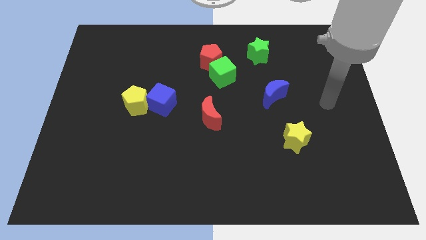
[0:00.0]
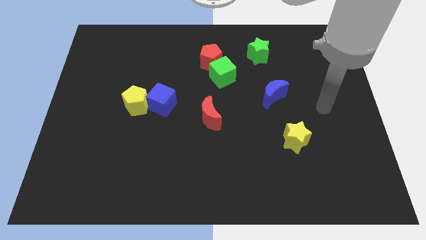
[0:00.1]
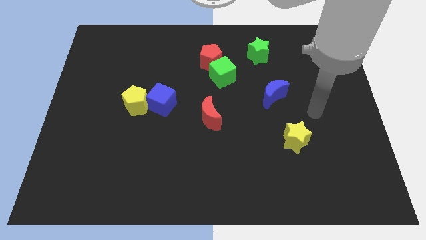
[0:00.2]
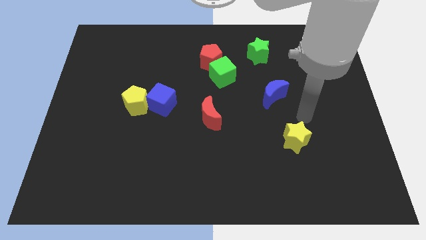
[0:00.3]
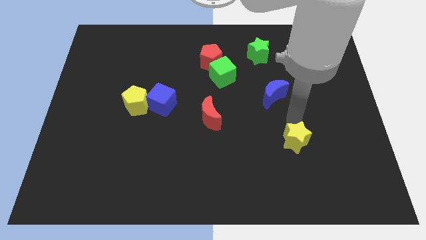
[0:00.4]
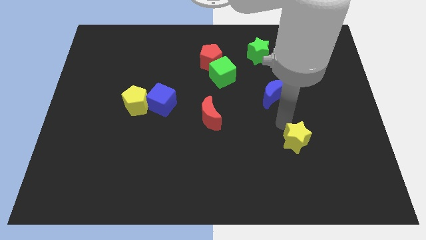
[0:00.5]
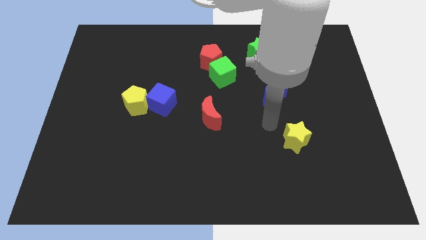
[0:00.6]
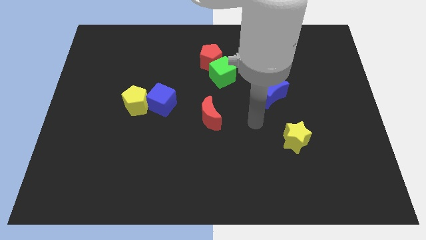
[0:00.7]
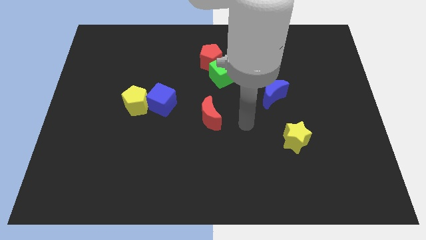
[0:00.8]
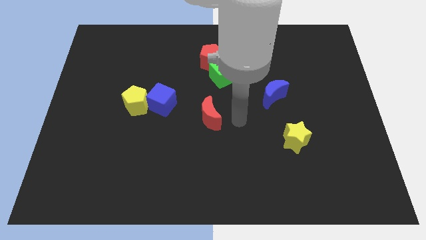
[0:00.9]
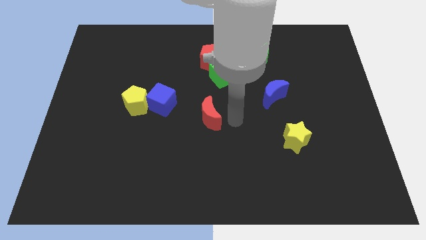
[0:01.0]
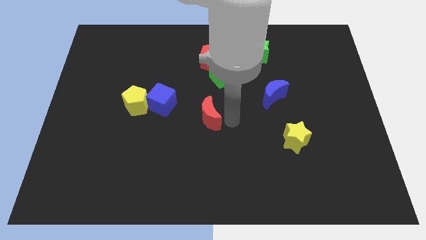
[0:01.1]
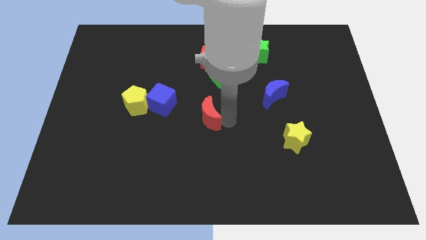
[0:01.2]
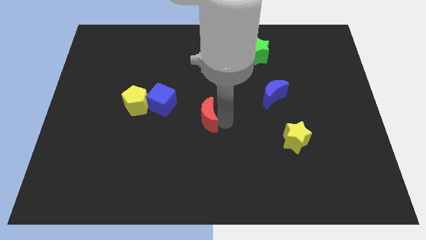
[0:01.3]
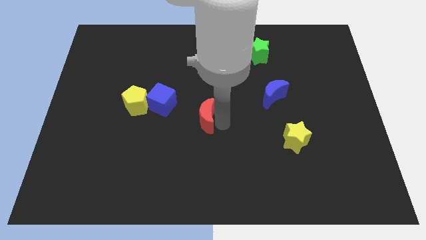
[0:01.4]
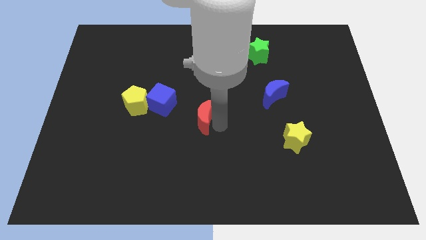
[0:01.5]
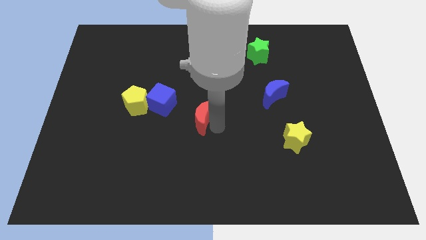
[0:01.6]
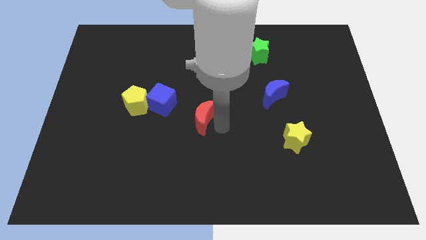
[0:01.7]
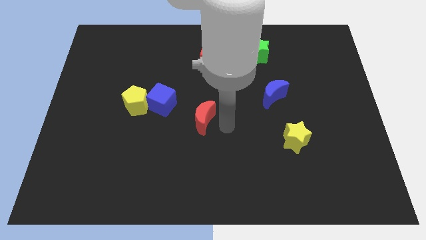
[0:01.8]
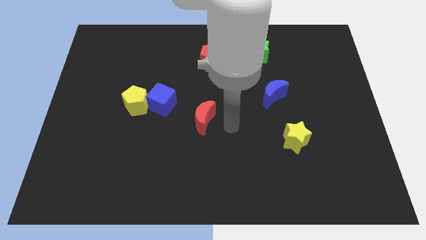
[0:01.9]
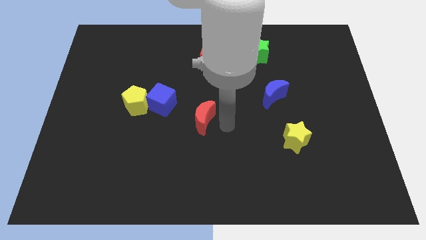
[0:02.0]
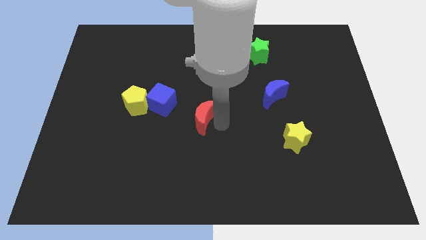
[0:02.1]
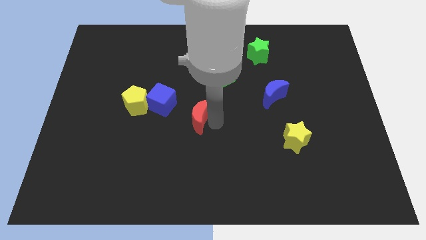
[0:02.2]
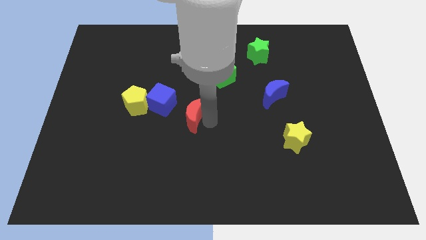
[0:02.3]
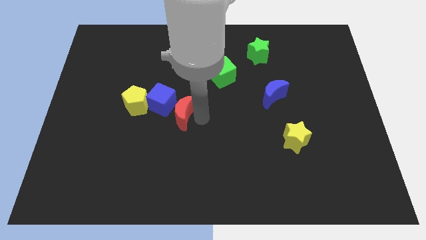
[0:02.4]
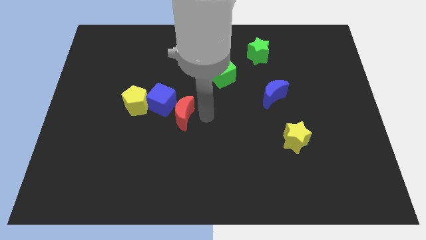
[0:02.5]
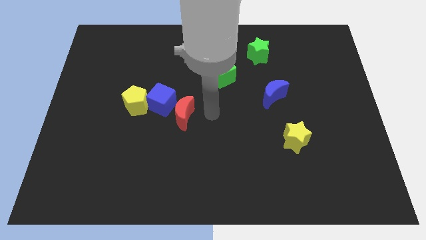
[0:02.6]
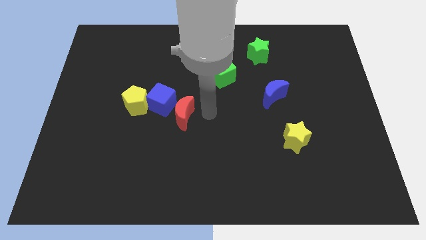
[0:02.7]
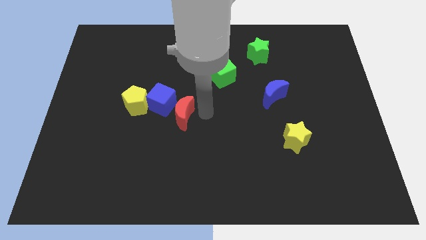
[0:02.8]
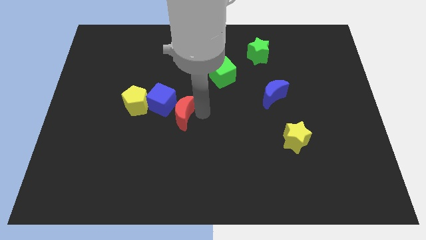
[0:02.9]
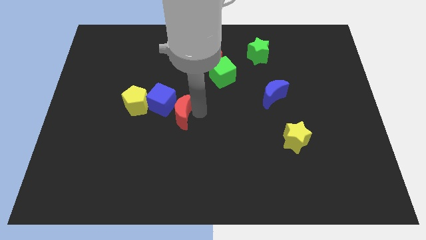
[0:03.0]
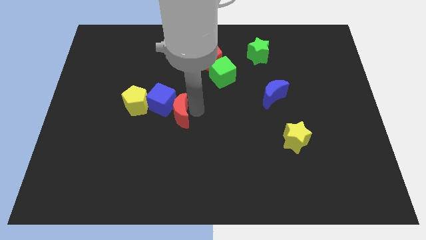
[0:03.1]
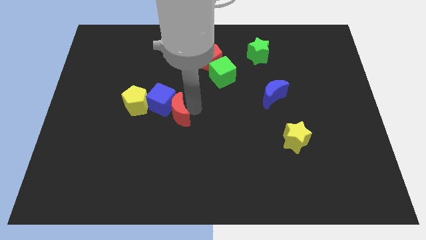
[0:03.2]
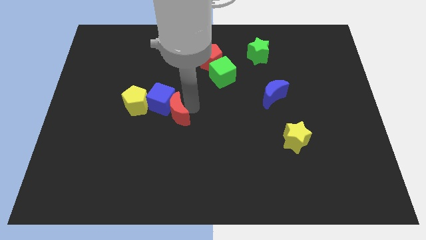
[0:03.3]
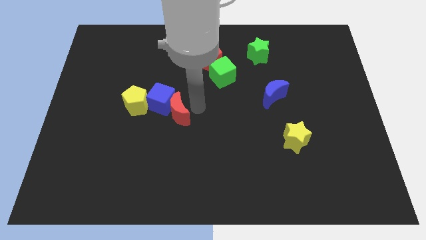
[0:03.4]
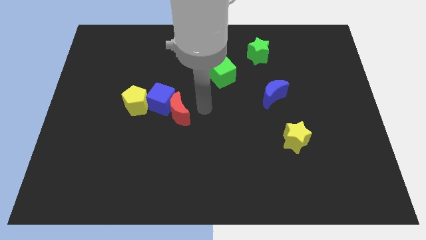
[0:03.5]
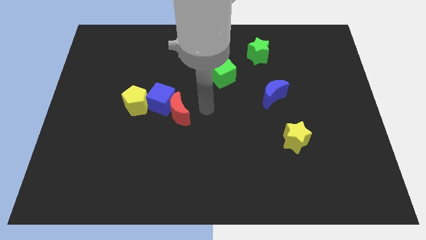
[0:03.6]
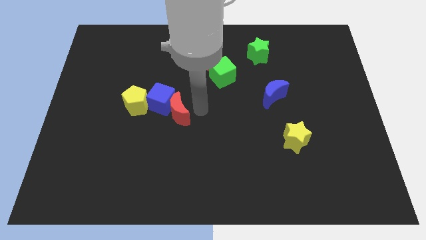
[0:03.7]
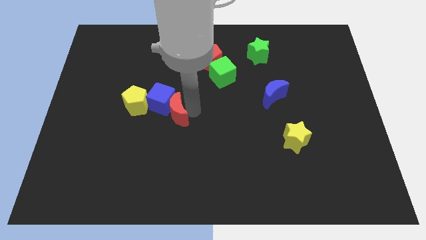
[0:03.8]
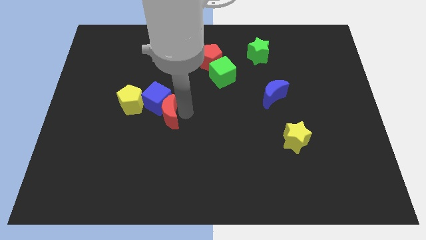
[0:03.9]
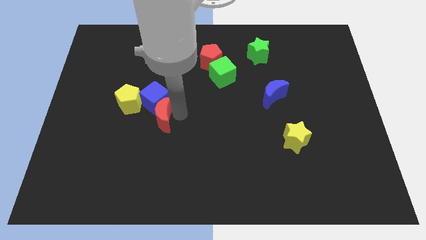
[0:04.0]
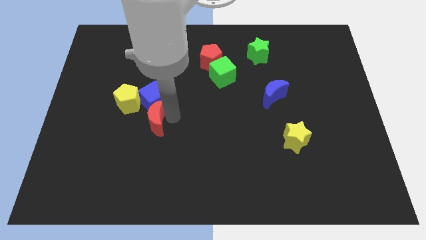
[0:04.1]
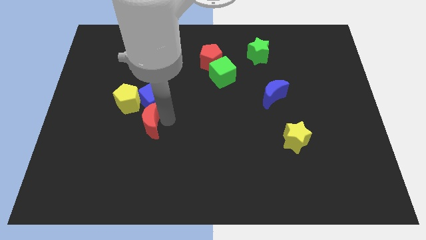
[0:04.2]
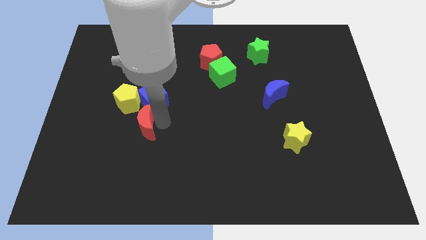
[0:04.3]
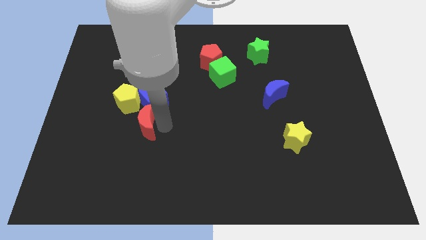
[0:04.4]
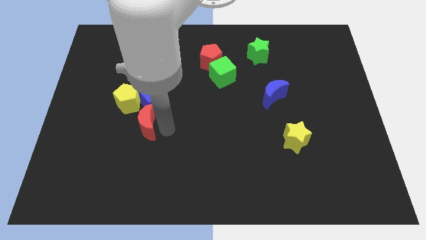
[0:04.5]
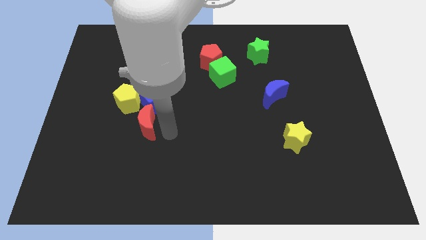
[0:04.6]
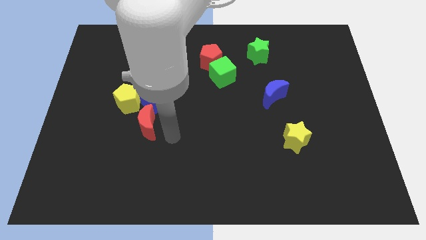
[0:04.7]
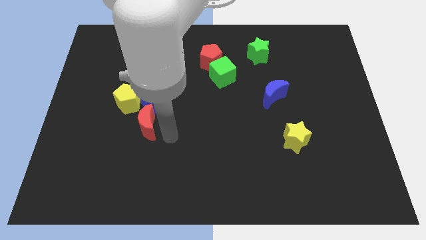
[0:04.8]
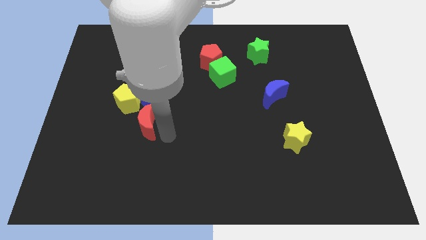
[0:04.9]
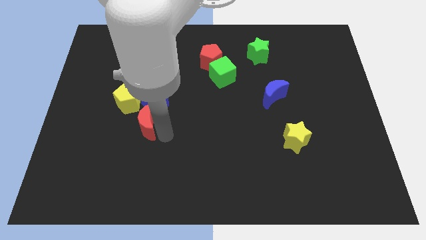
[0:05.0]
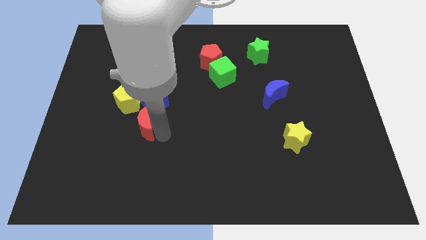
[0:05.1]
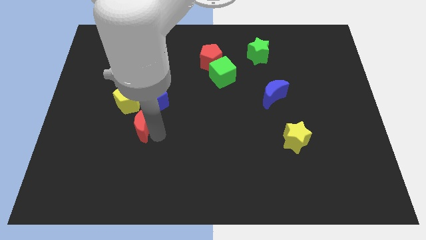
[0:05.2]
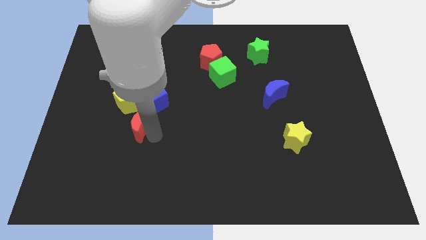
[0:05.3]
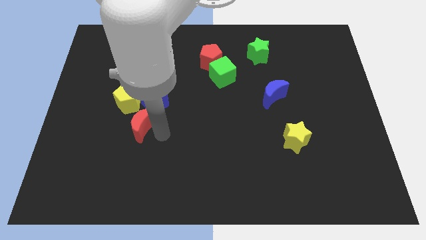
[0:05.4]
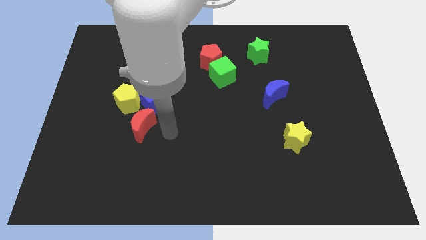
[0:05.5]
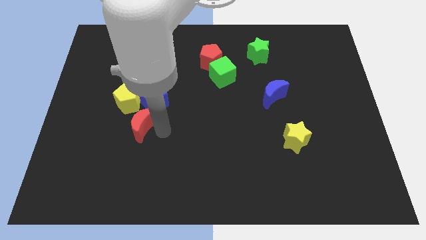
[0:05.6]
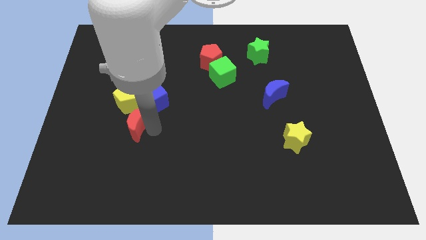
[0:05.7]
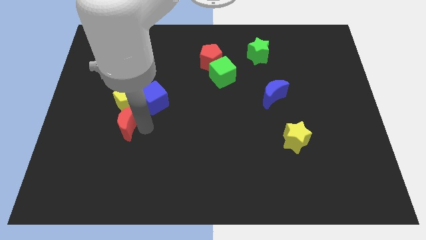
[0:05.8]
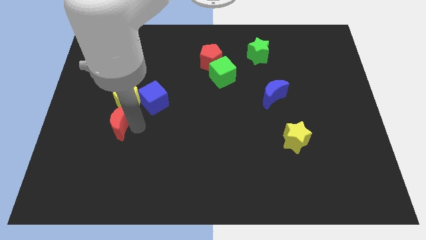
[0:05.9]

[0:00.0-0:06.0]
push the red moon to the bottom left of the yellow pentagon
